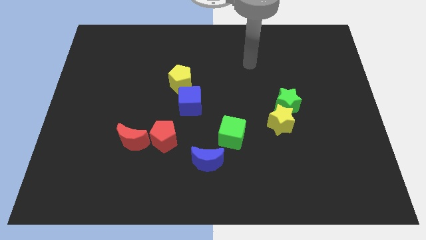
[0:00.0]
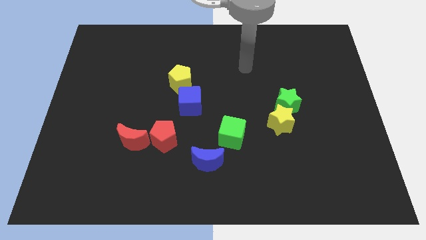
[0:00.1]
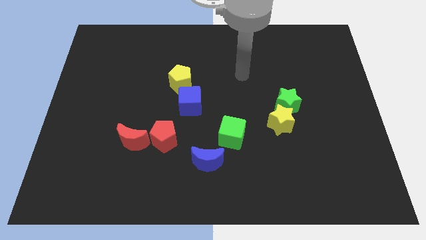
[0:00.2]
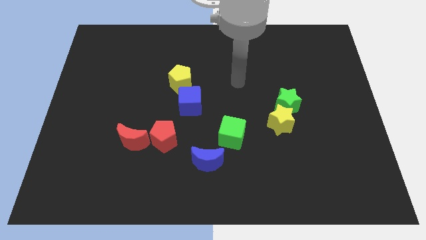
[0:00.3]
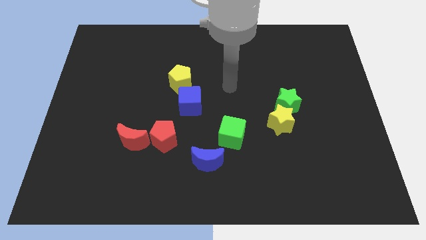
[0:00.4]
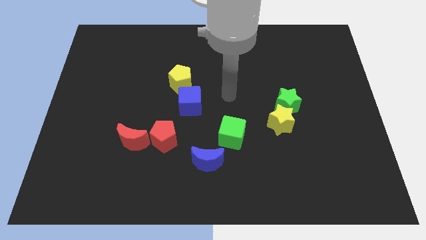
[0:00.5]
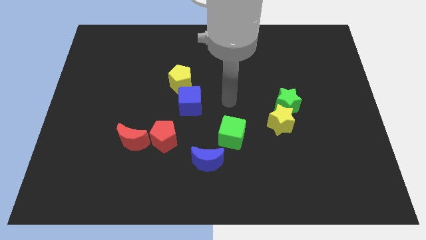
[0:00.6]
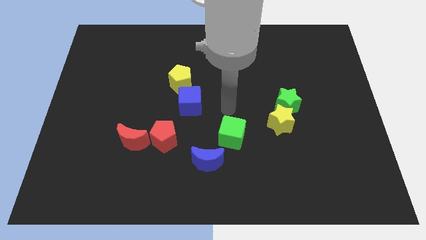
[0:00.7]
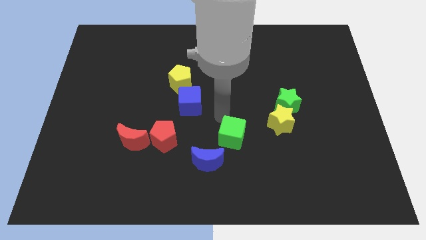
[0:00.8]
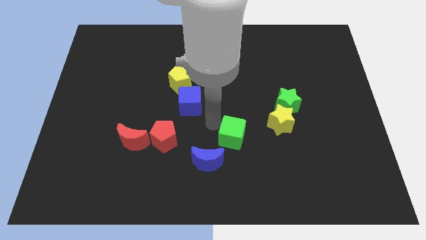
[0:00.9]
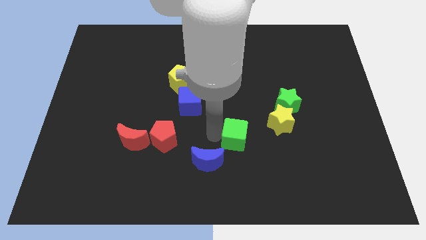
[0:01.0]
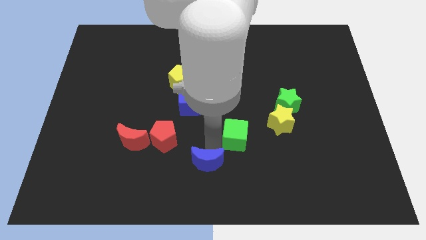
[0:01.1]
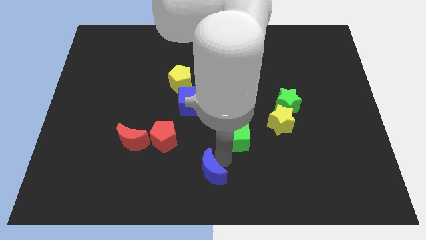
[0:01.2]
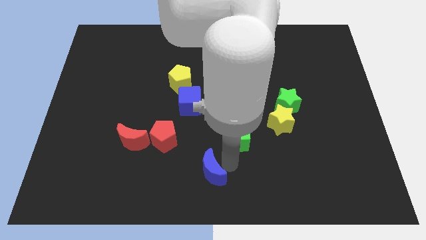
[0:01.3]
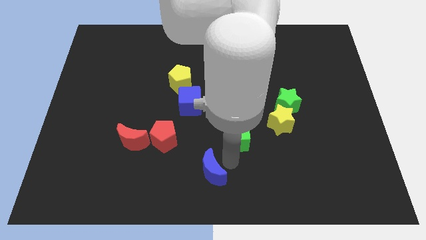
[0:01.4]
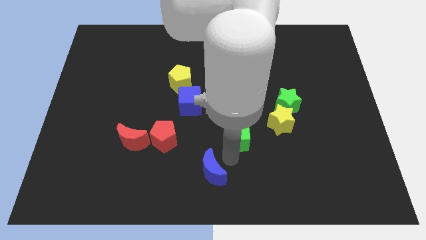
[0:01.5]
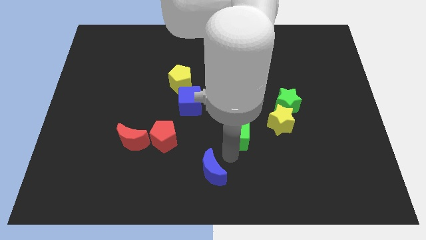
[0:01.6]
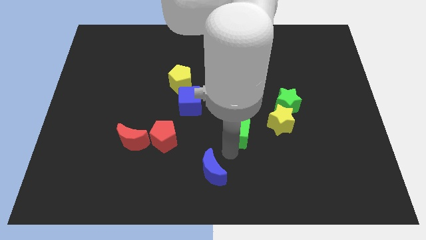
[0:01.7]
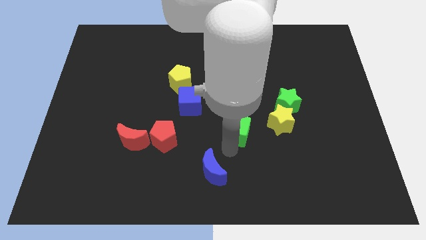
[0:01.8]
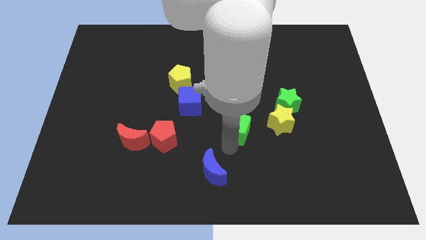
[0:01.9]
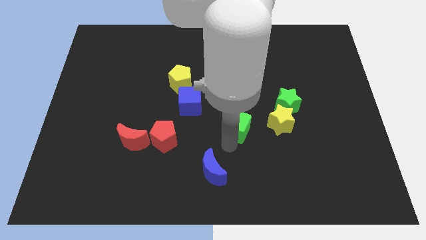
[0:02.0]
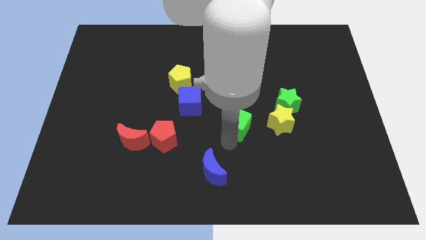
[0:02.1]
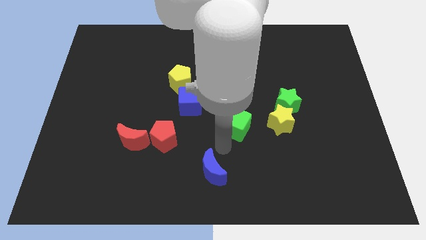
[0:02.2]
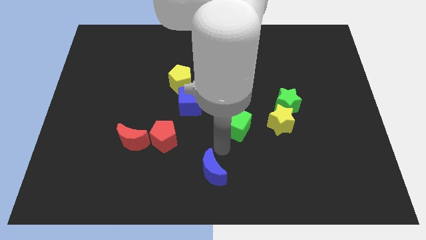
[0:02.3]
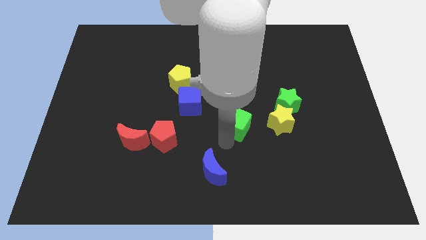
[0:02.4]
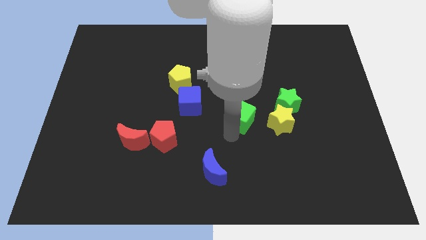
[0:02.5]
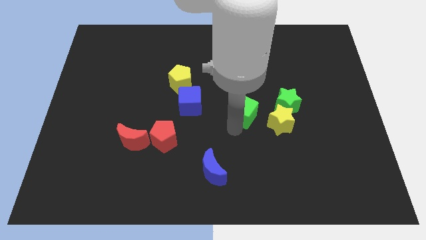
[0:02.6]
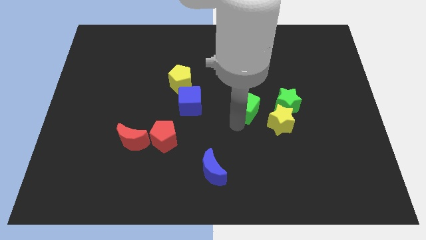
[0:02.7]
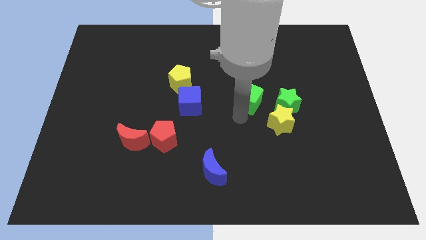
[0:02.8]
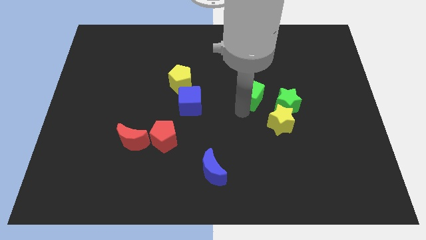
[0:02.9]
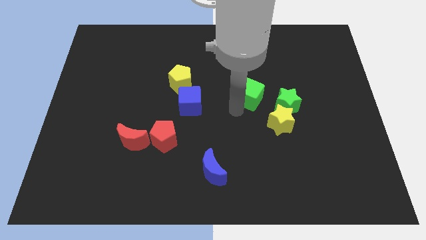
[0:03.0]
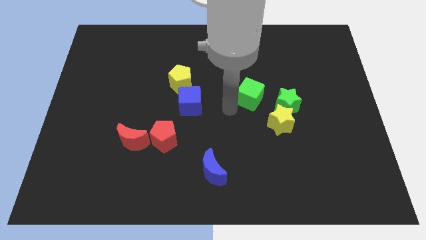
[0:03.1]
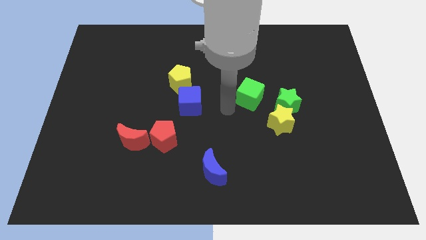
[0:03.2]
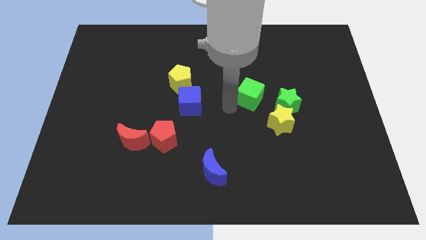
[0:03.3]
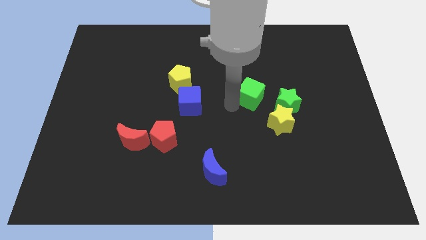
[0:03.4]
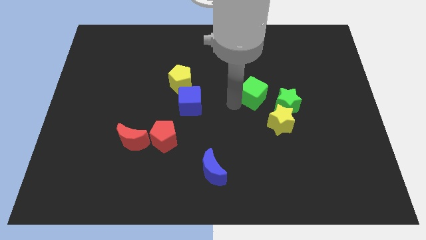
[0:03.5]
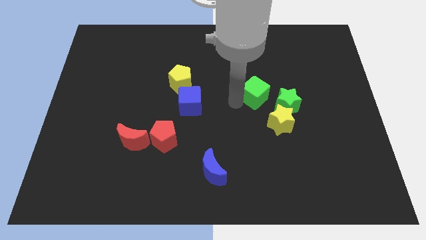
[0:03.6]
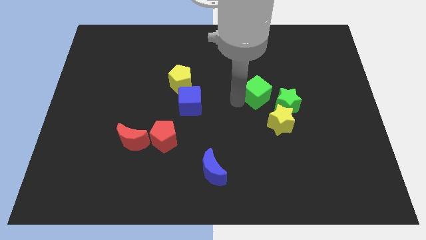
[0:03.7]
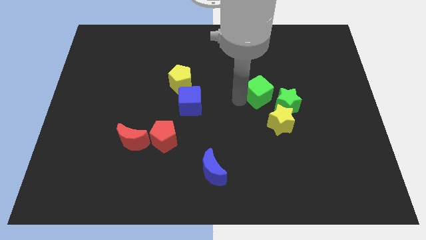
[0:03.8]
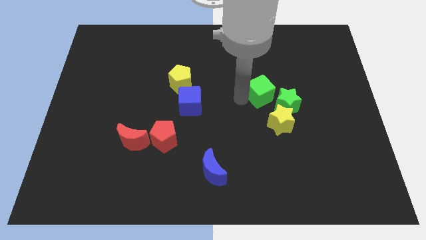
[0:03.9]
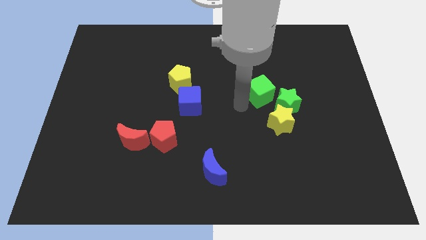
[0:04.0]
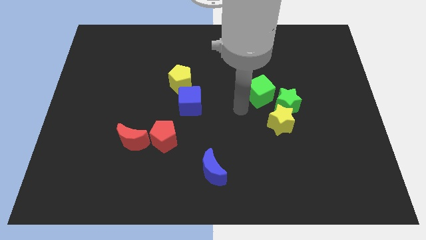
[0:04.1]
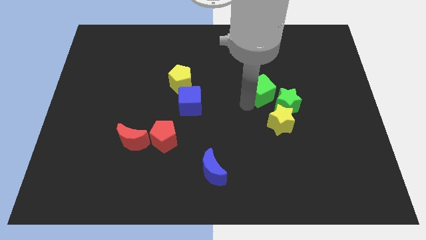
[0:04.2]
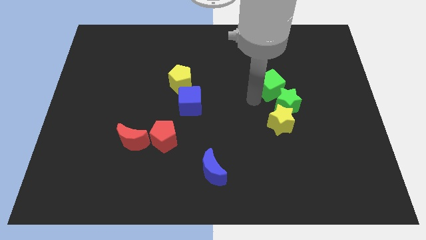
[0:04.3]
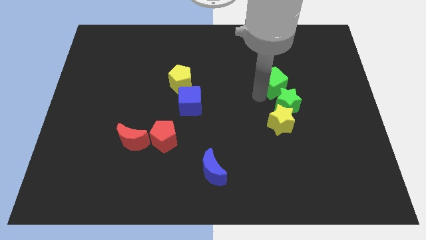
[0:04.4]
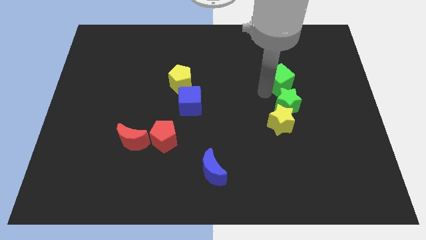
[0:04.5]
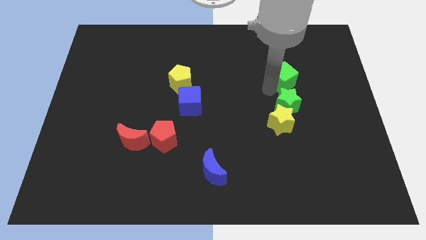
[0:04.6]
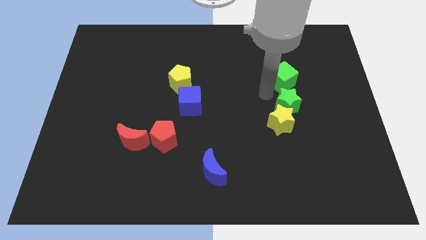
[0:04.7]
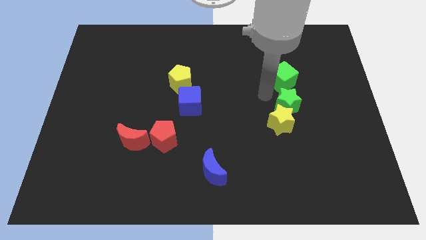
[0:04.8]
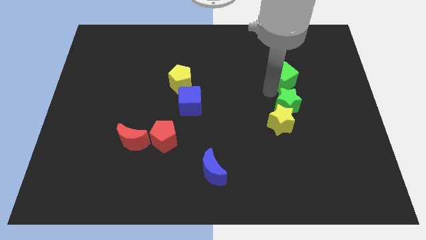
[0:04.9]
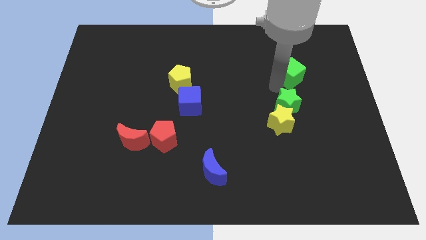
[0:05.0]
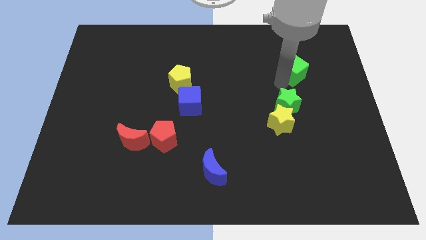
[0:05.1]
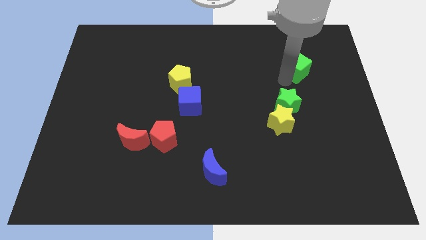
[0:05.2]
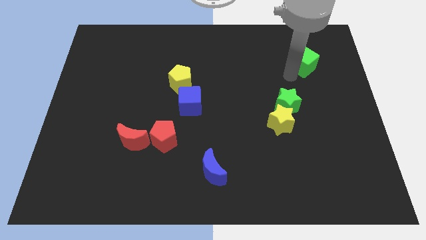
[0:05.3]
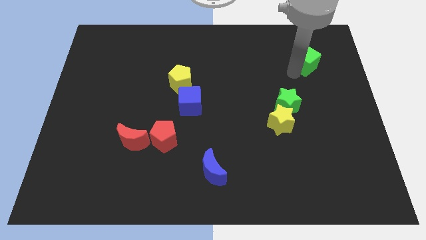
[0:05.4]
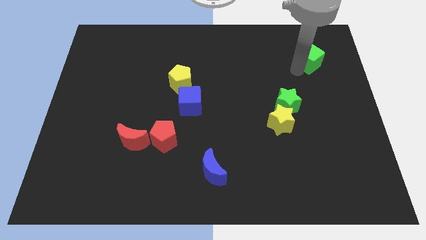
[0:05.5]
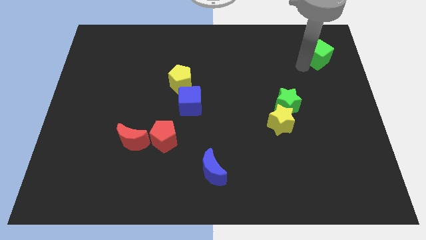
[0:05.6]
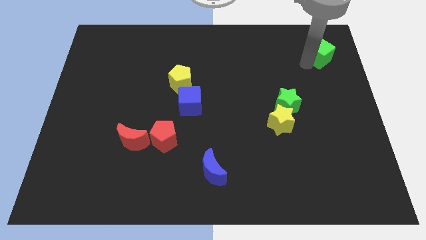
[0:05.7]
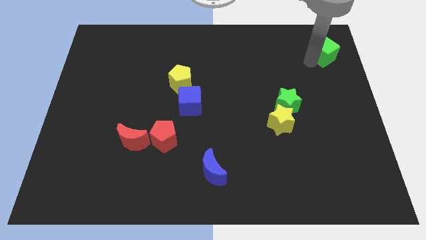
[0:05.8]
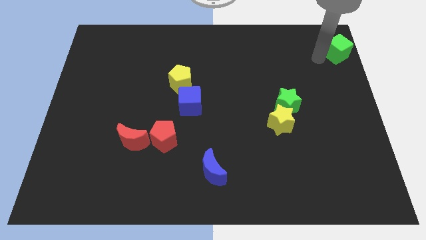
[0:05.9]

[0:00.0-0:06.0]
put the green cube to the top right
